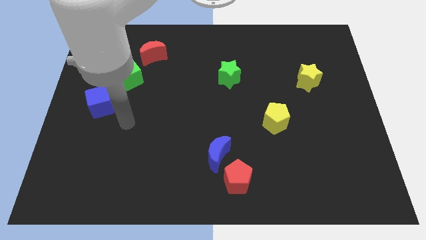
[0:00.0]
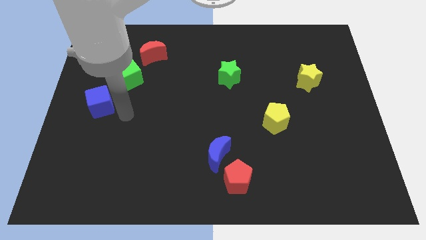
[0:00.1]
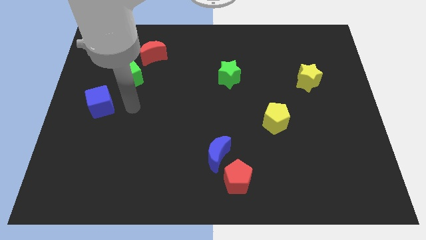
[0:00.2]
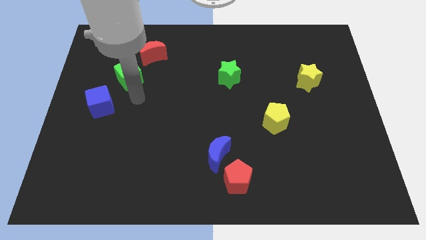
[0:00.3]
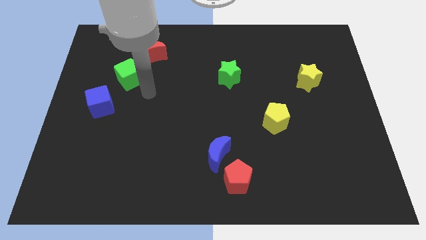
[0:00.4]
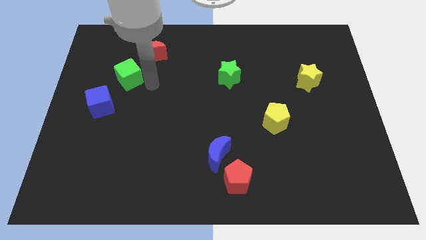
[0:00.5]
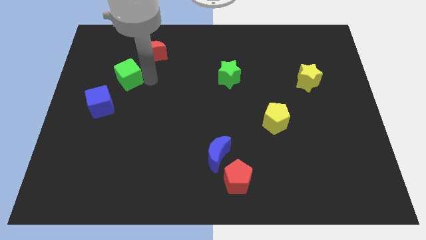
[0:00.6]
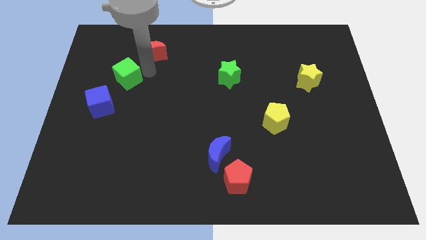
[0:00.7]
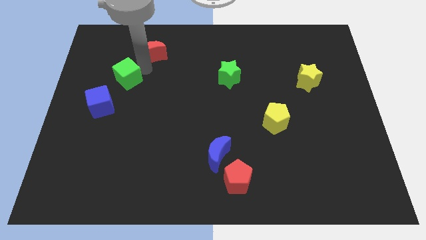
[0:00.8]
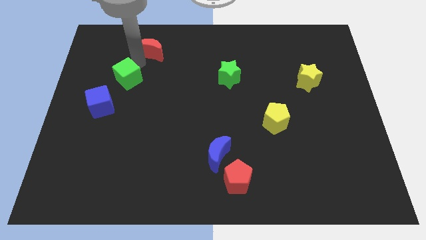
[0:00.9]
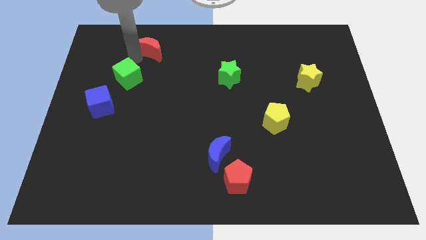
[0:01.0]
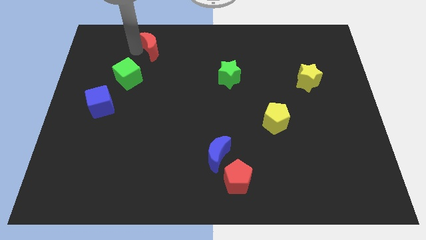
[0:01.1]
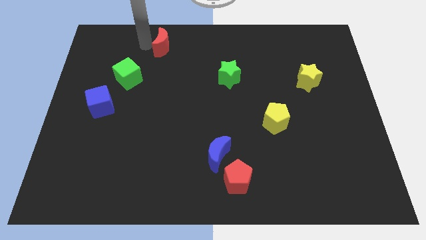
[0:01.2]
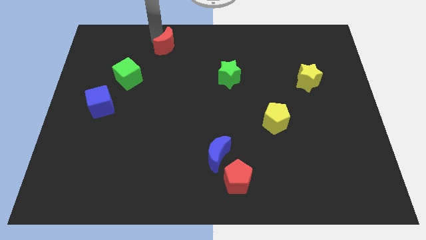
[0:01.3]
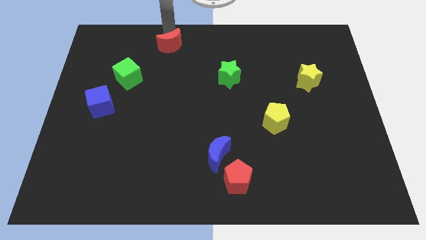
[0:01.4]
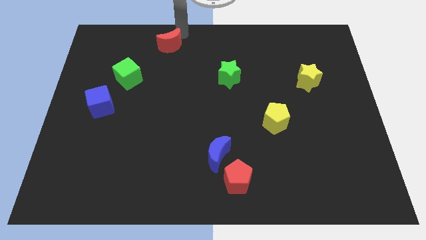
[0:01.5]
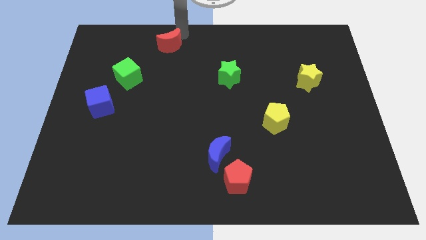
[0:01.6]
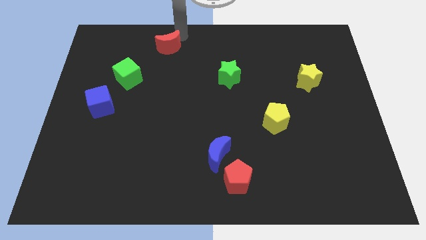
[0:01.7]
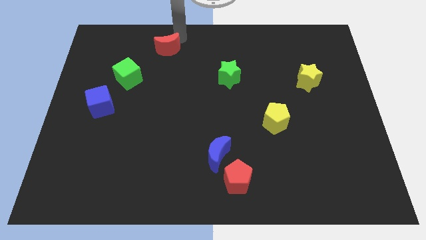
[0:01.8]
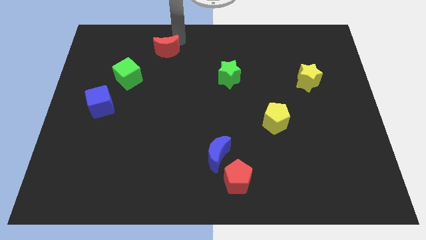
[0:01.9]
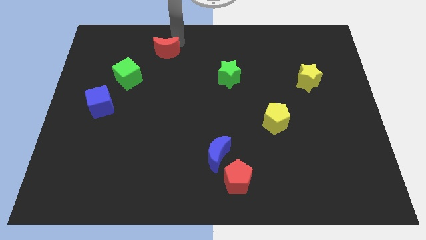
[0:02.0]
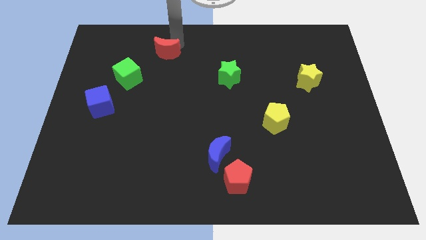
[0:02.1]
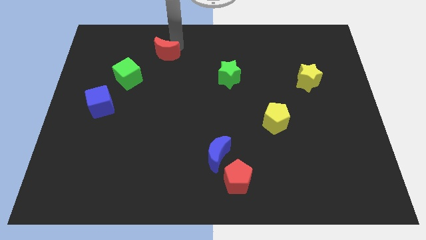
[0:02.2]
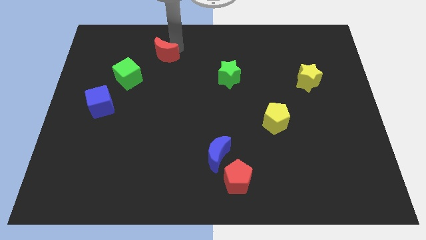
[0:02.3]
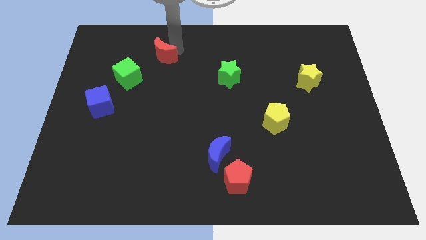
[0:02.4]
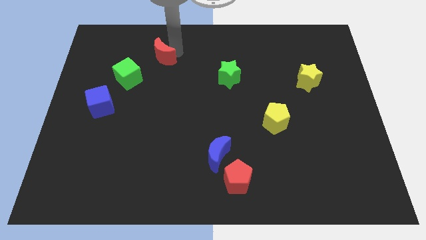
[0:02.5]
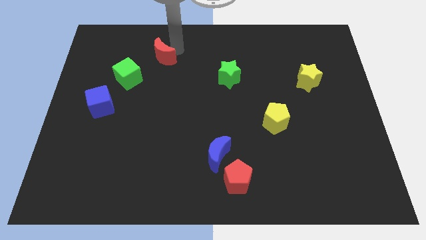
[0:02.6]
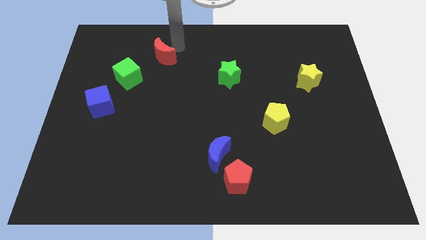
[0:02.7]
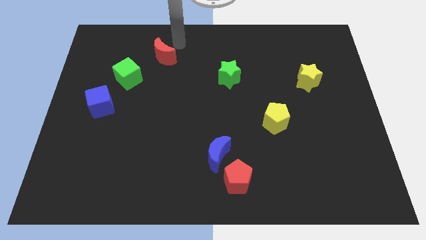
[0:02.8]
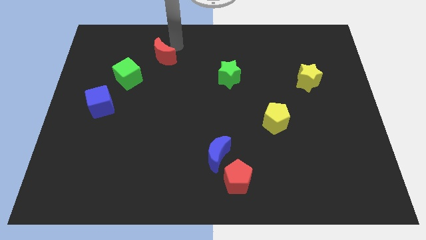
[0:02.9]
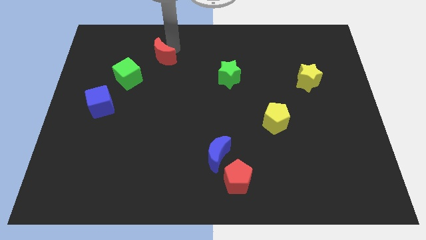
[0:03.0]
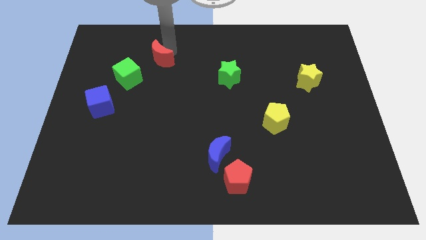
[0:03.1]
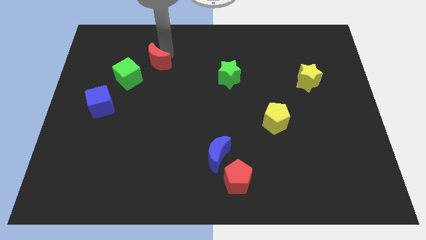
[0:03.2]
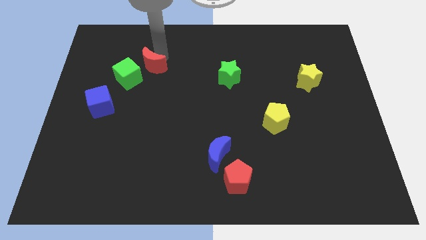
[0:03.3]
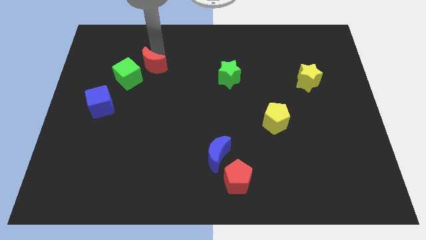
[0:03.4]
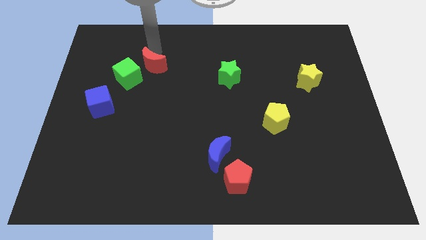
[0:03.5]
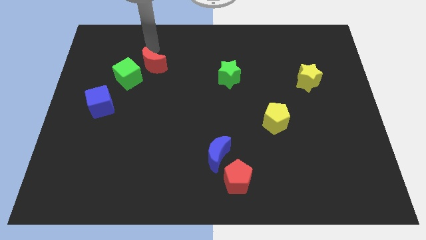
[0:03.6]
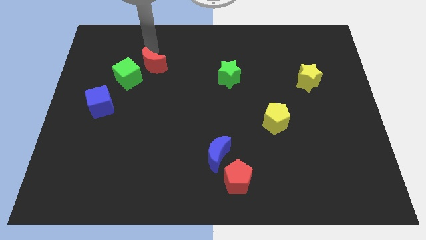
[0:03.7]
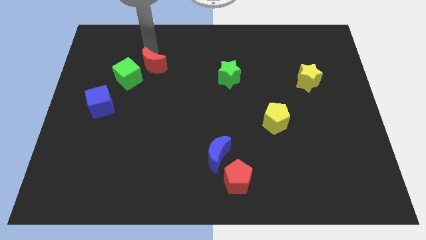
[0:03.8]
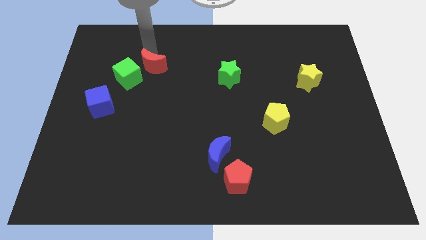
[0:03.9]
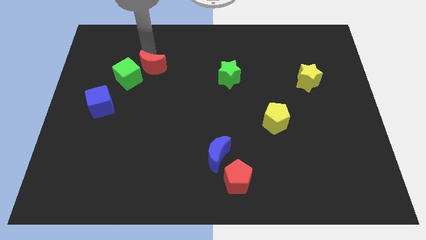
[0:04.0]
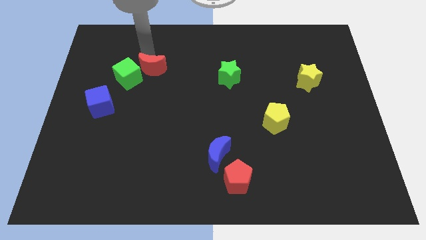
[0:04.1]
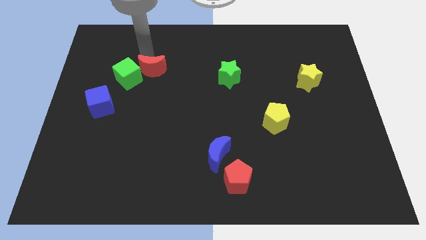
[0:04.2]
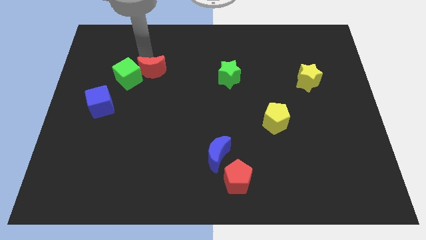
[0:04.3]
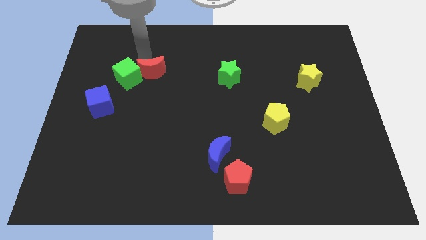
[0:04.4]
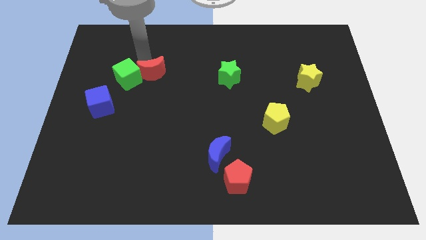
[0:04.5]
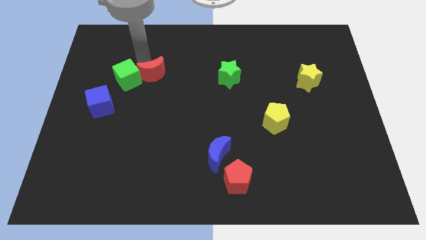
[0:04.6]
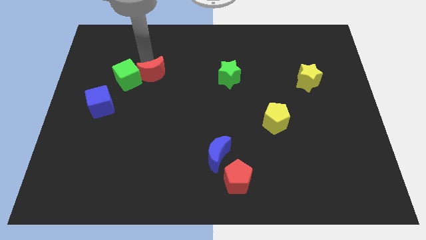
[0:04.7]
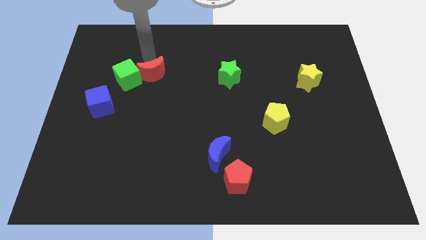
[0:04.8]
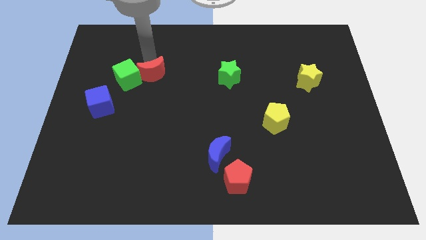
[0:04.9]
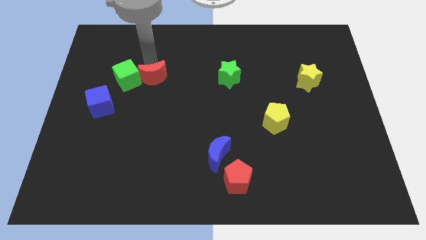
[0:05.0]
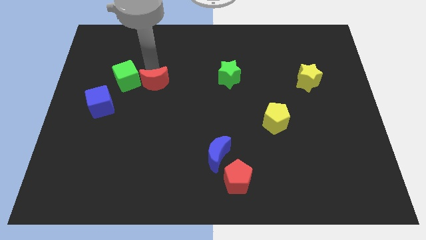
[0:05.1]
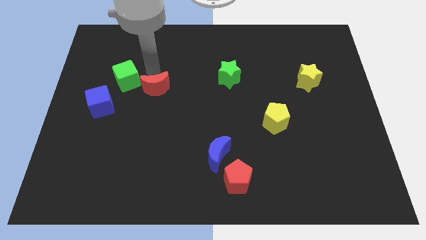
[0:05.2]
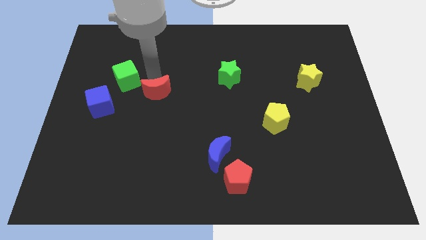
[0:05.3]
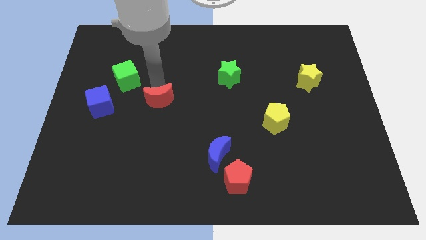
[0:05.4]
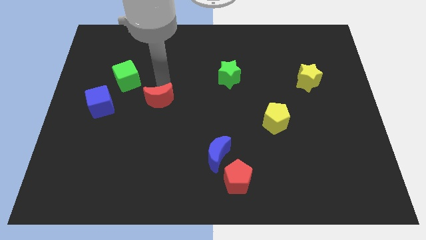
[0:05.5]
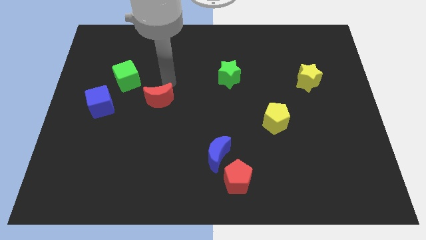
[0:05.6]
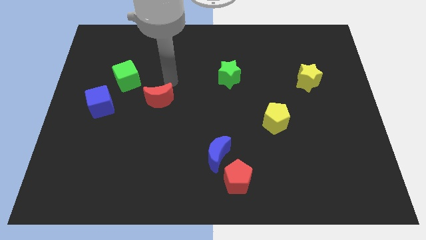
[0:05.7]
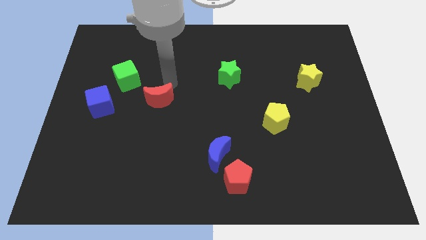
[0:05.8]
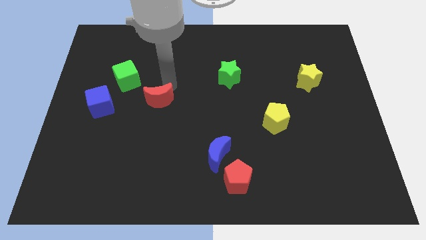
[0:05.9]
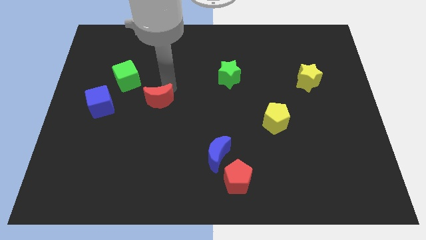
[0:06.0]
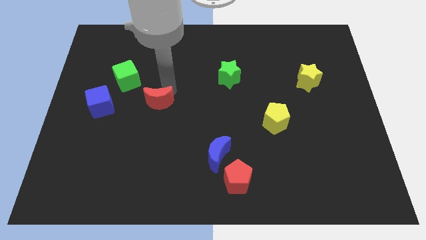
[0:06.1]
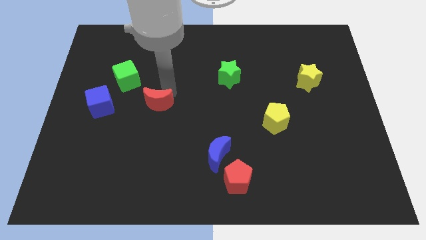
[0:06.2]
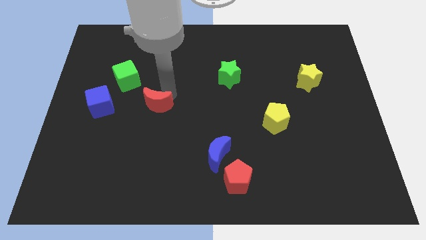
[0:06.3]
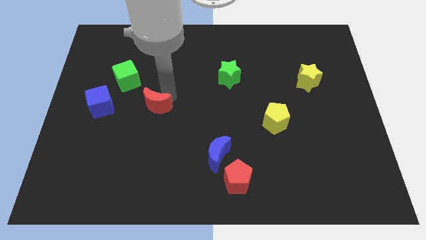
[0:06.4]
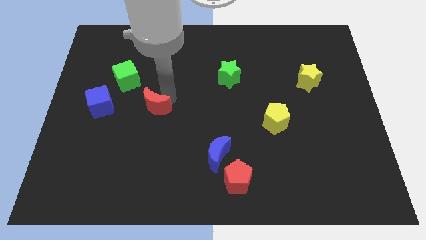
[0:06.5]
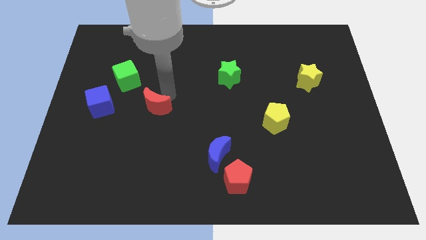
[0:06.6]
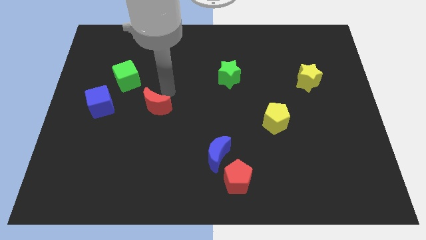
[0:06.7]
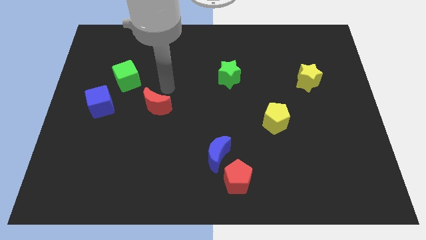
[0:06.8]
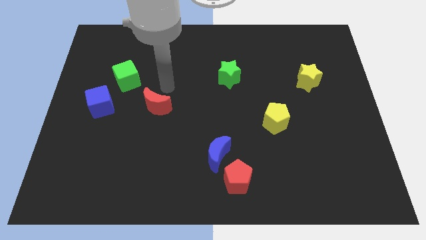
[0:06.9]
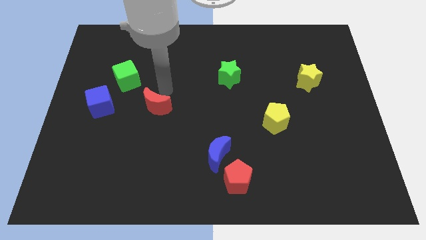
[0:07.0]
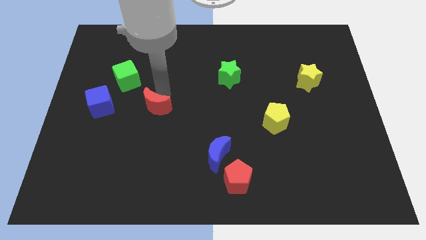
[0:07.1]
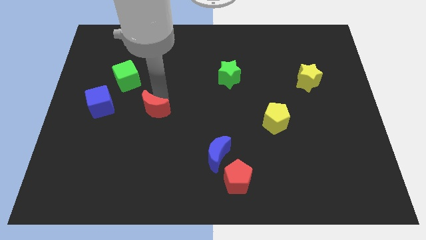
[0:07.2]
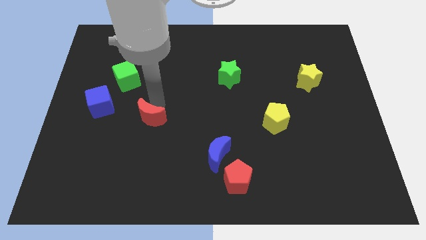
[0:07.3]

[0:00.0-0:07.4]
move the red moon down

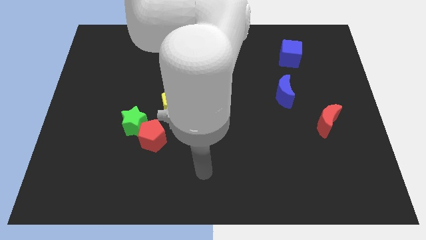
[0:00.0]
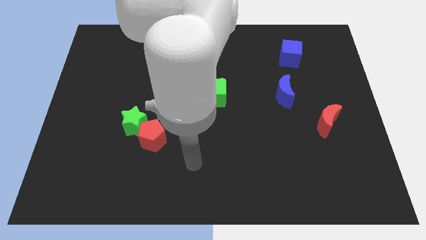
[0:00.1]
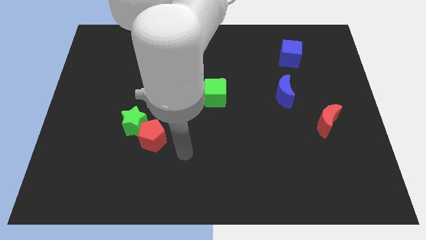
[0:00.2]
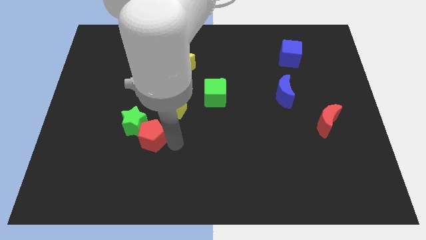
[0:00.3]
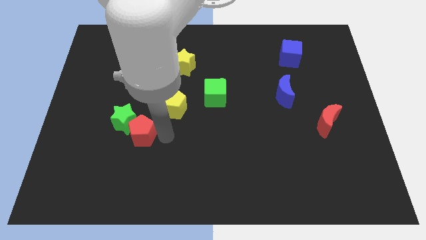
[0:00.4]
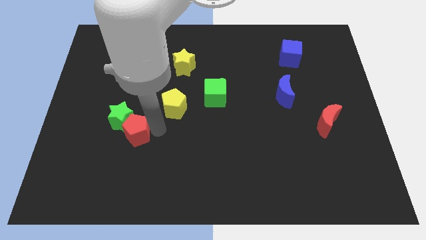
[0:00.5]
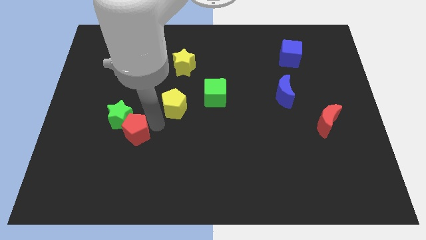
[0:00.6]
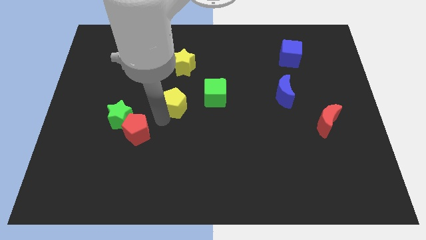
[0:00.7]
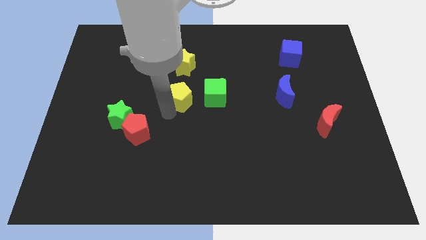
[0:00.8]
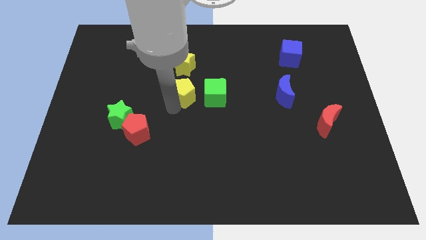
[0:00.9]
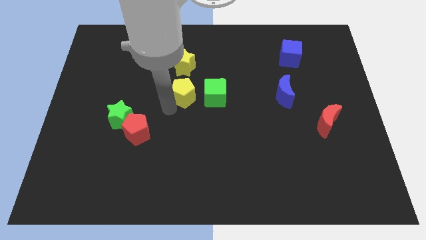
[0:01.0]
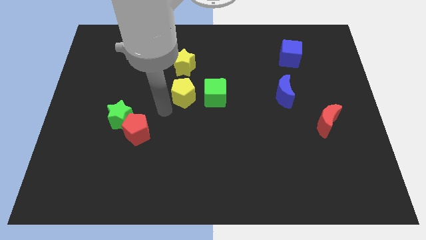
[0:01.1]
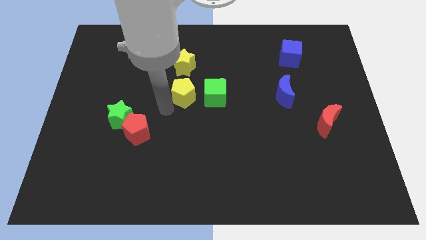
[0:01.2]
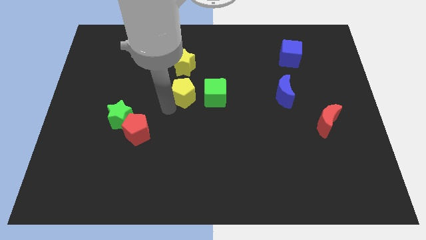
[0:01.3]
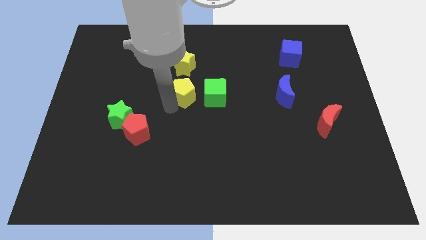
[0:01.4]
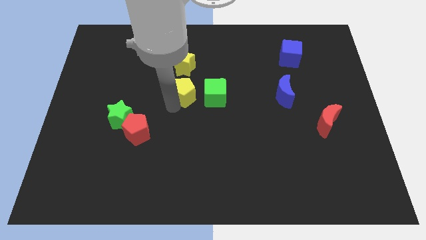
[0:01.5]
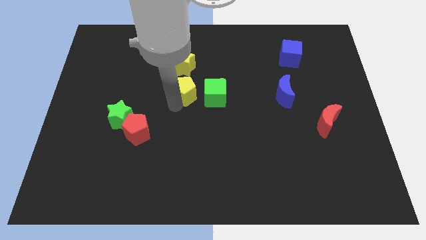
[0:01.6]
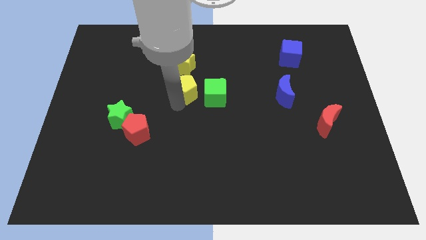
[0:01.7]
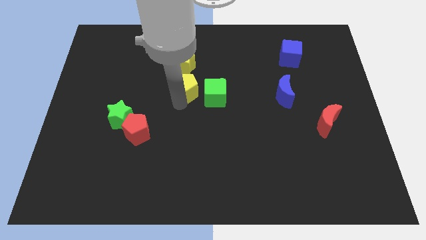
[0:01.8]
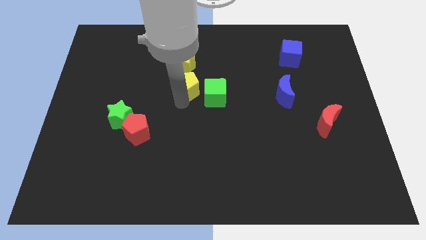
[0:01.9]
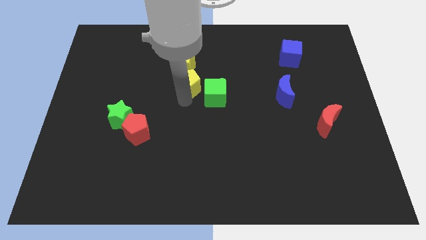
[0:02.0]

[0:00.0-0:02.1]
slightly slide the yellow pentagon upwards and to the right diagonally
